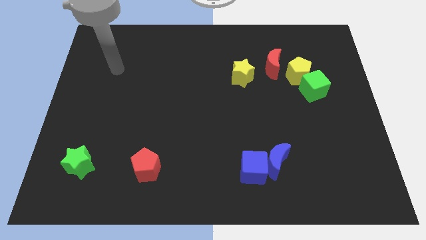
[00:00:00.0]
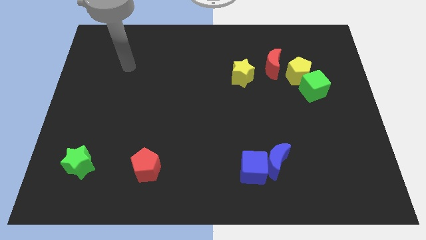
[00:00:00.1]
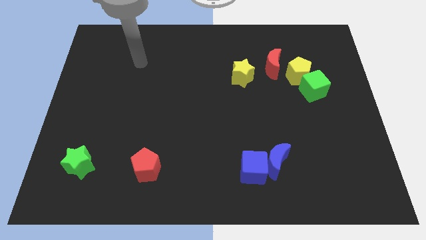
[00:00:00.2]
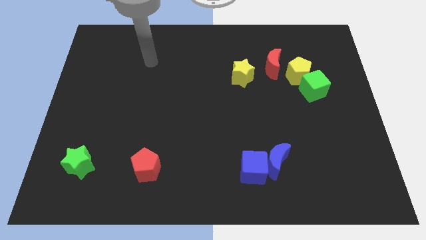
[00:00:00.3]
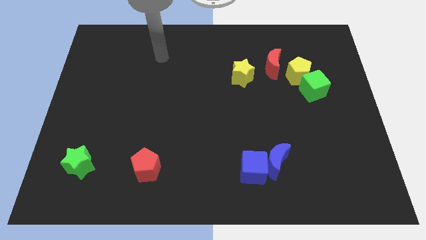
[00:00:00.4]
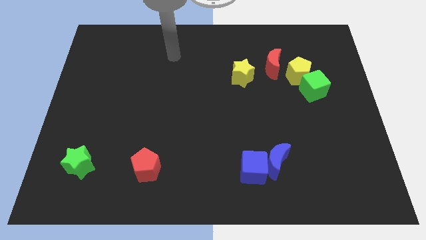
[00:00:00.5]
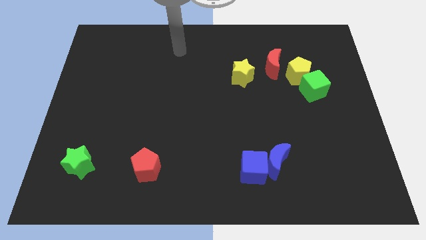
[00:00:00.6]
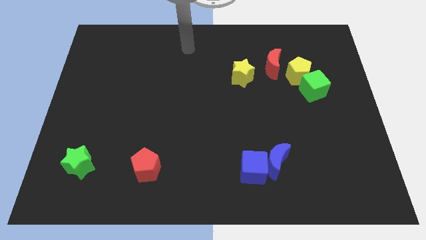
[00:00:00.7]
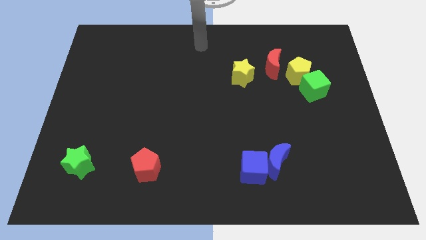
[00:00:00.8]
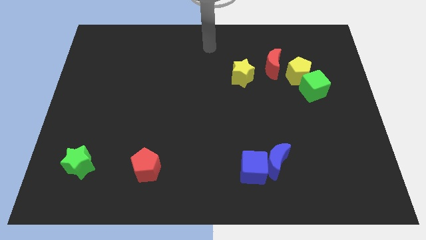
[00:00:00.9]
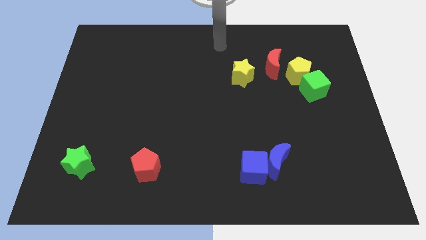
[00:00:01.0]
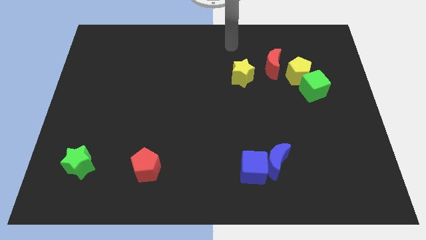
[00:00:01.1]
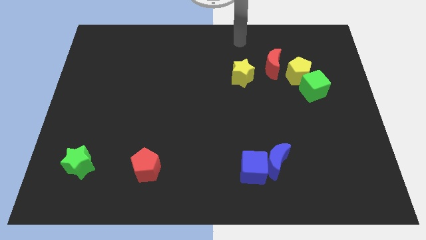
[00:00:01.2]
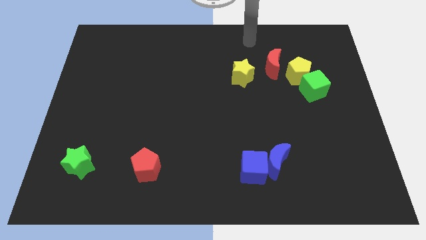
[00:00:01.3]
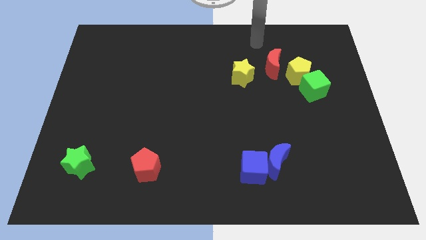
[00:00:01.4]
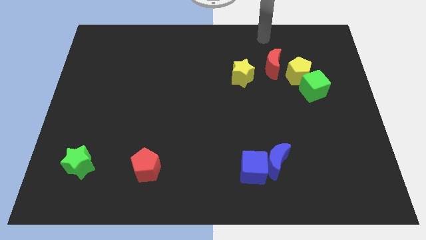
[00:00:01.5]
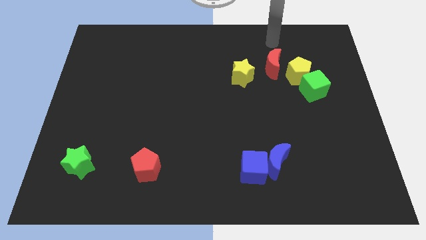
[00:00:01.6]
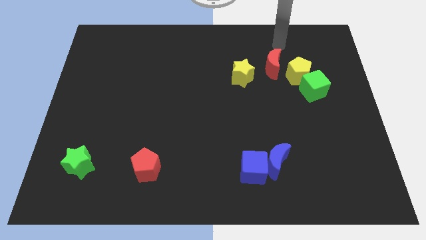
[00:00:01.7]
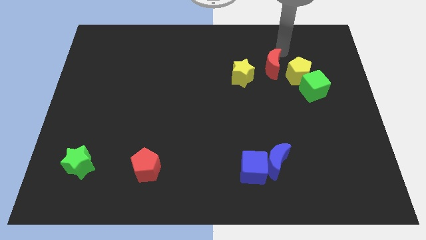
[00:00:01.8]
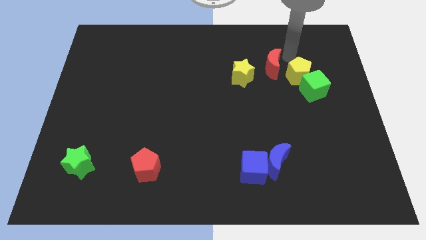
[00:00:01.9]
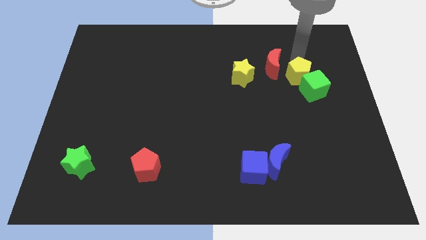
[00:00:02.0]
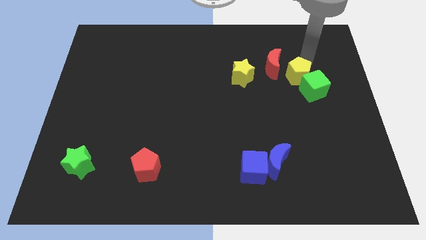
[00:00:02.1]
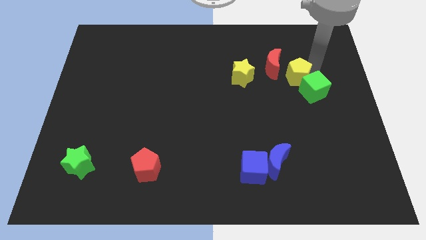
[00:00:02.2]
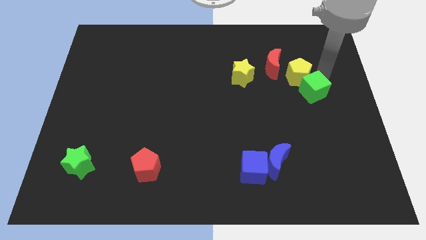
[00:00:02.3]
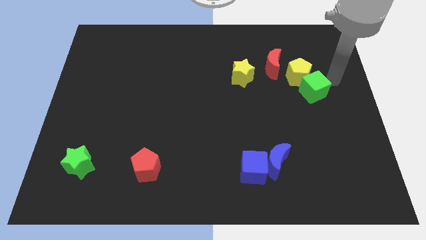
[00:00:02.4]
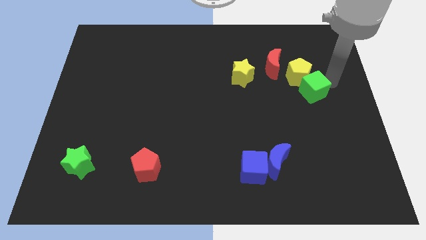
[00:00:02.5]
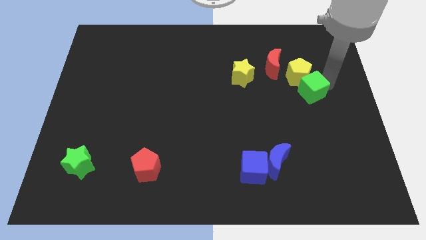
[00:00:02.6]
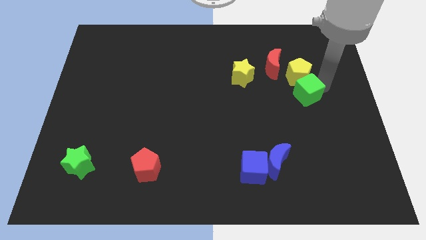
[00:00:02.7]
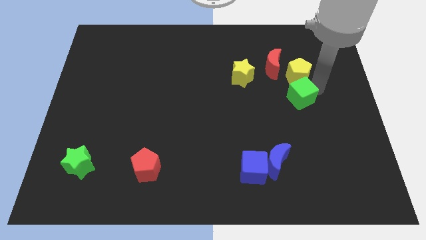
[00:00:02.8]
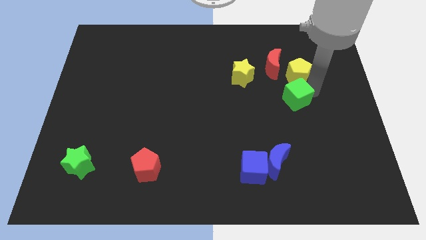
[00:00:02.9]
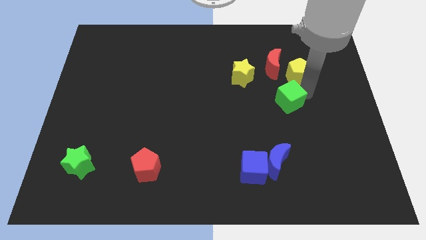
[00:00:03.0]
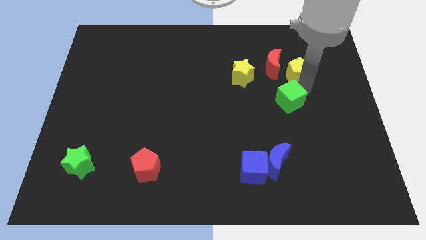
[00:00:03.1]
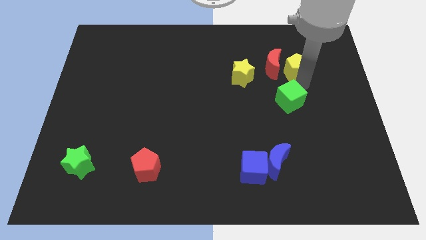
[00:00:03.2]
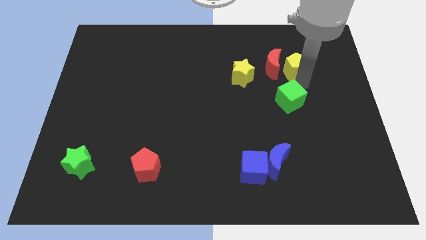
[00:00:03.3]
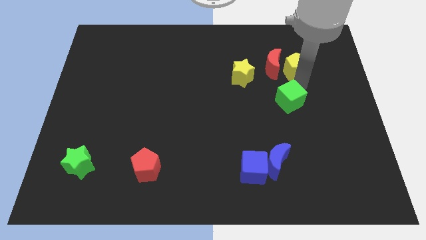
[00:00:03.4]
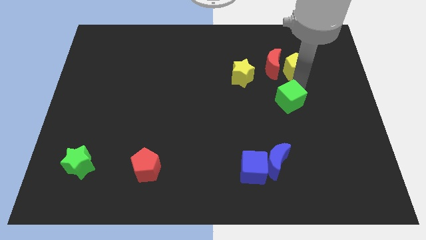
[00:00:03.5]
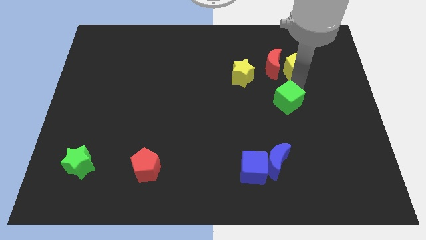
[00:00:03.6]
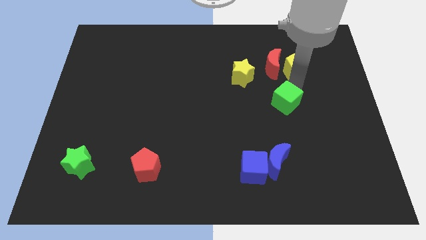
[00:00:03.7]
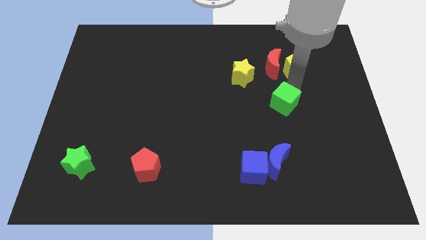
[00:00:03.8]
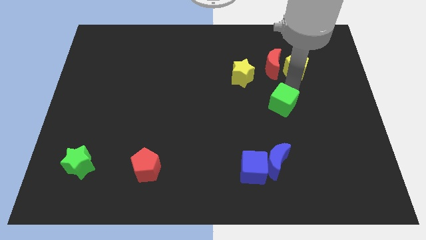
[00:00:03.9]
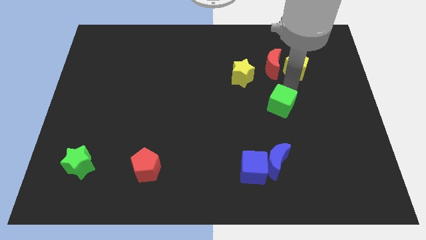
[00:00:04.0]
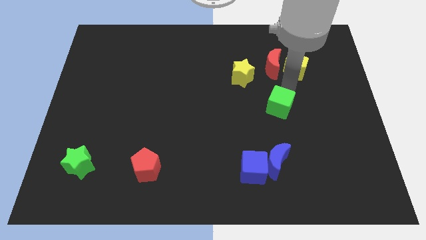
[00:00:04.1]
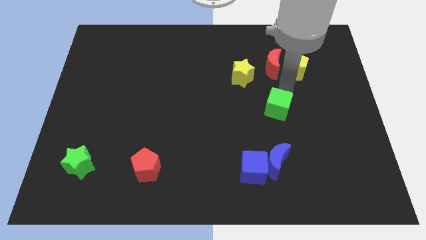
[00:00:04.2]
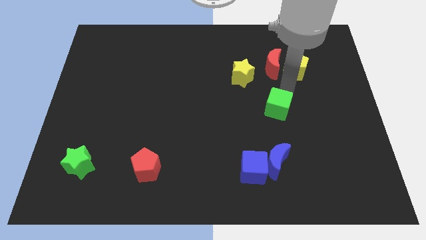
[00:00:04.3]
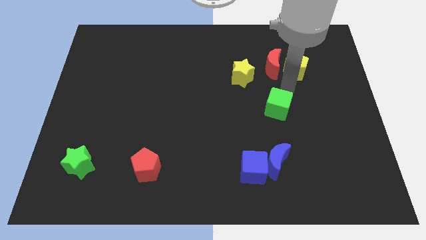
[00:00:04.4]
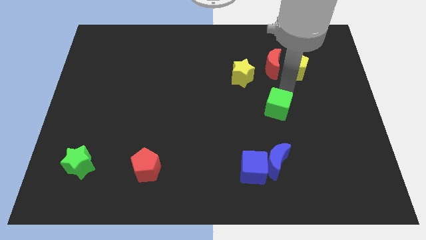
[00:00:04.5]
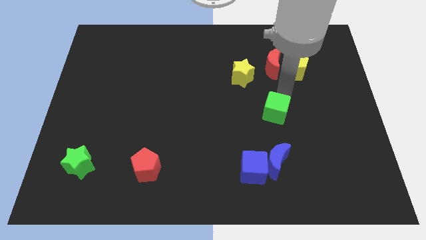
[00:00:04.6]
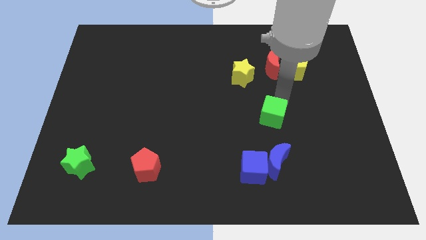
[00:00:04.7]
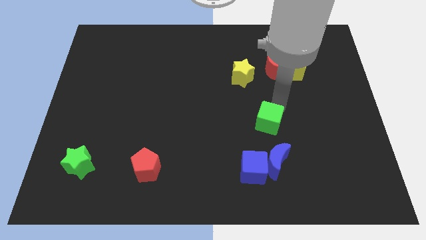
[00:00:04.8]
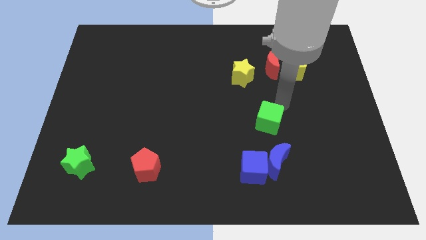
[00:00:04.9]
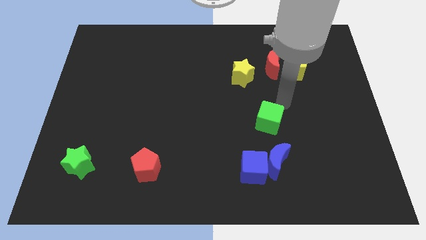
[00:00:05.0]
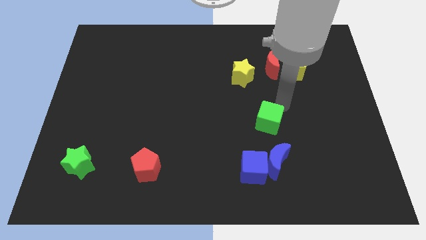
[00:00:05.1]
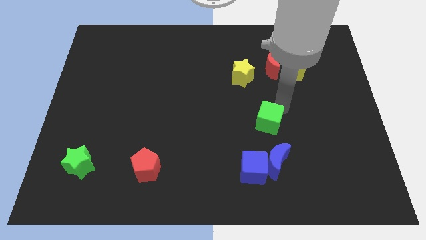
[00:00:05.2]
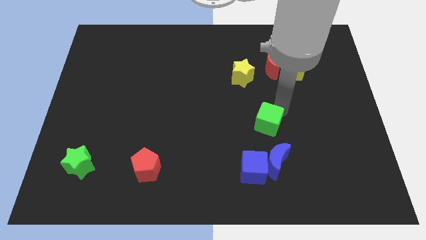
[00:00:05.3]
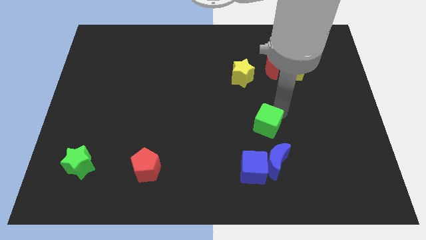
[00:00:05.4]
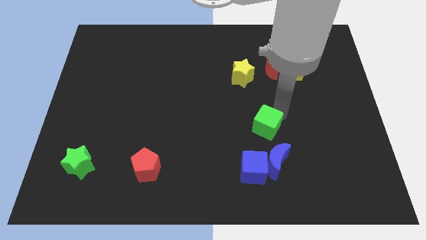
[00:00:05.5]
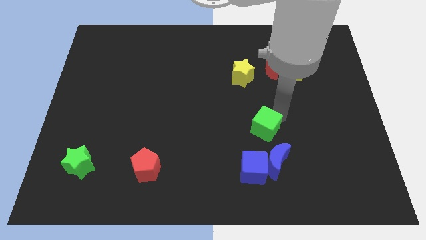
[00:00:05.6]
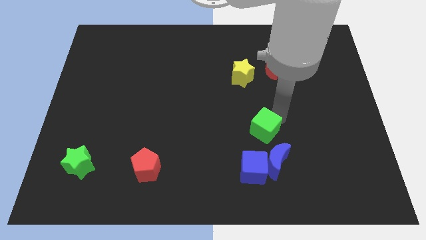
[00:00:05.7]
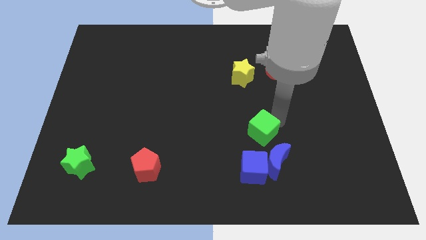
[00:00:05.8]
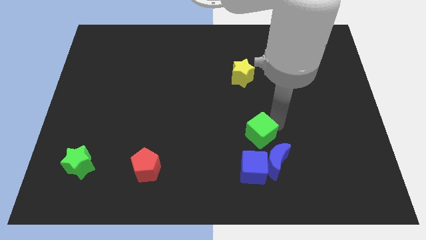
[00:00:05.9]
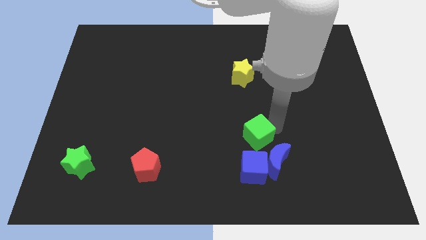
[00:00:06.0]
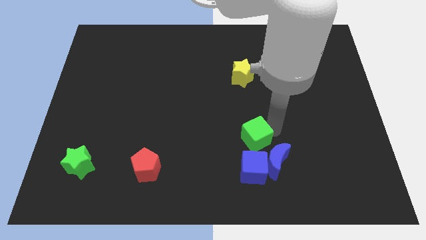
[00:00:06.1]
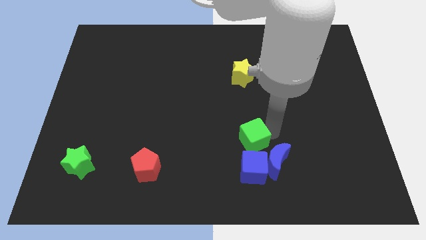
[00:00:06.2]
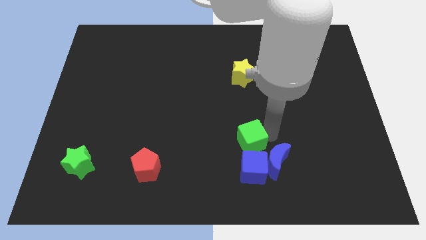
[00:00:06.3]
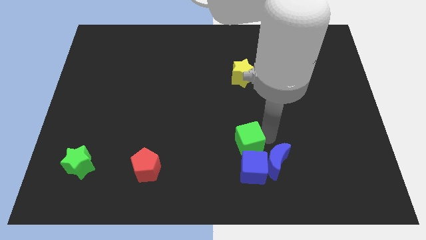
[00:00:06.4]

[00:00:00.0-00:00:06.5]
push the green cube diagonally up and to the left of the blue cube

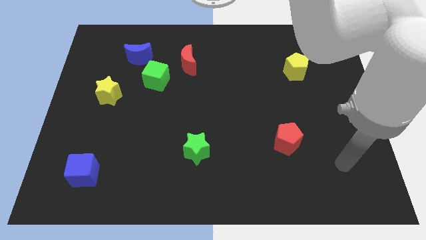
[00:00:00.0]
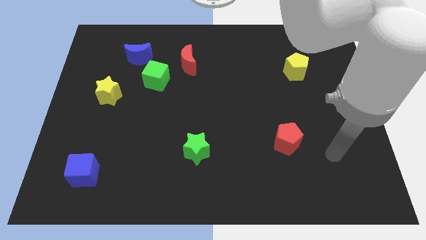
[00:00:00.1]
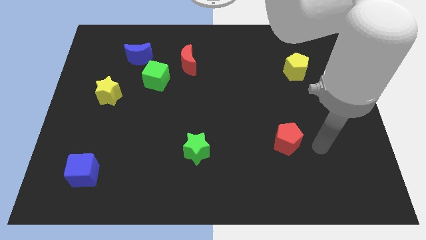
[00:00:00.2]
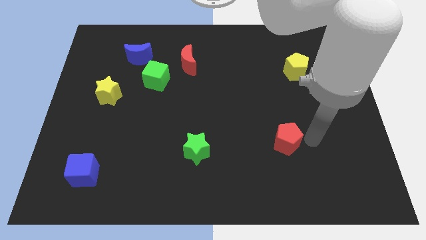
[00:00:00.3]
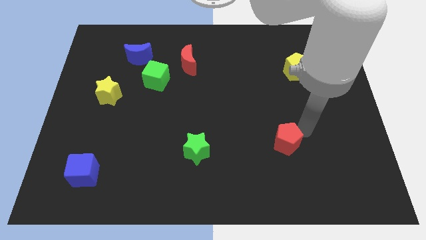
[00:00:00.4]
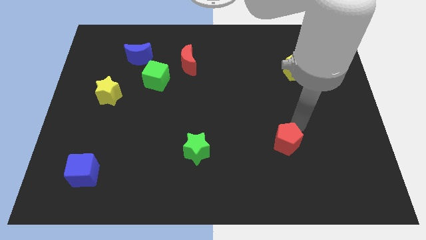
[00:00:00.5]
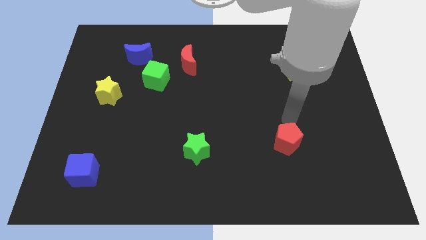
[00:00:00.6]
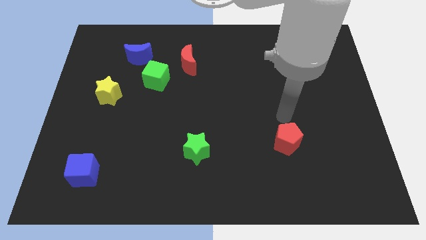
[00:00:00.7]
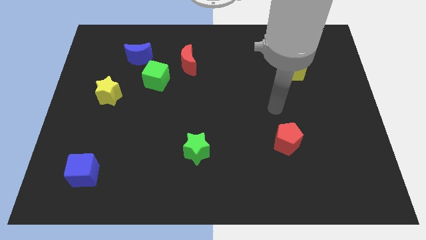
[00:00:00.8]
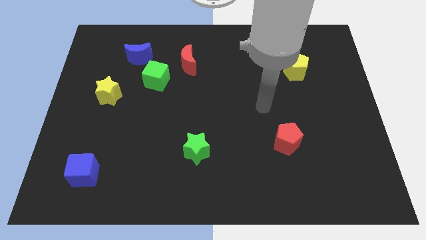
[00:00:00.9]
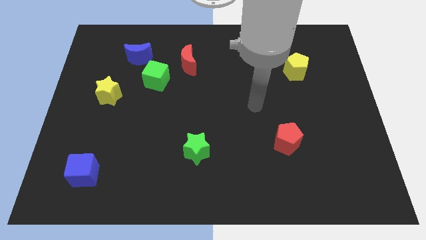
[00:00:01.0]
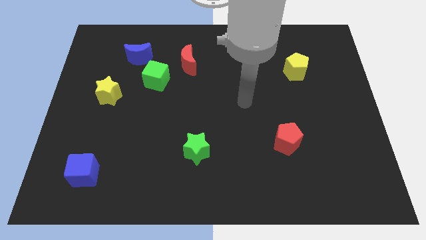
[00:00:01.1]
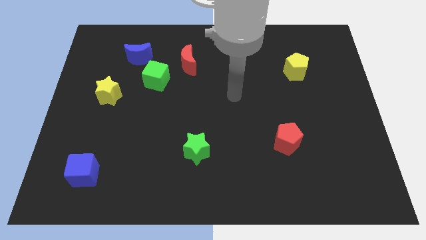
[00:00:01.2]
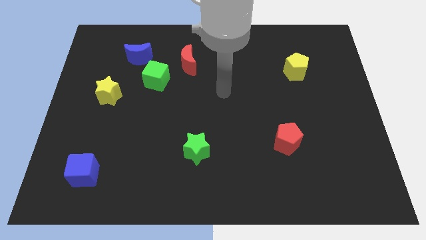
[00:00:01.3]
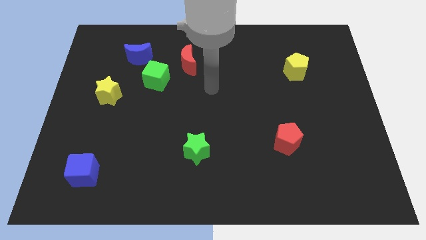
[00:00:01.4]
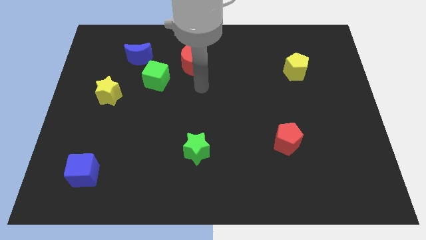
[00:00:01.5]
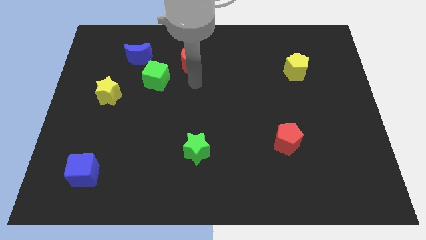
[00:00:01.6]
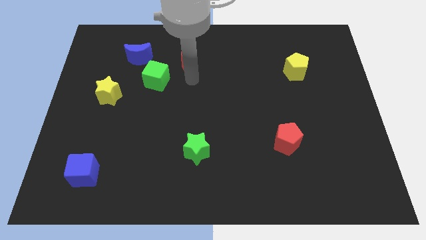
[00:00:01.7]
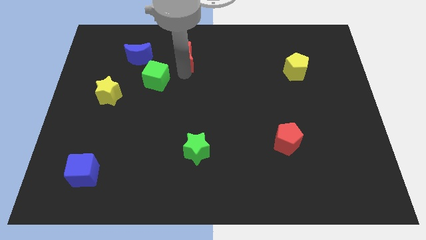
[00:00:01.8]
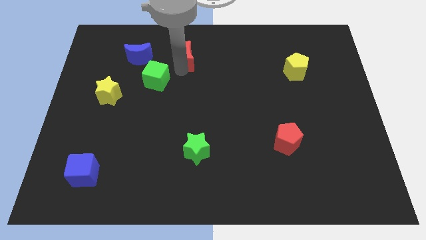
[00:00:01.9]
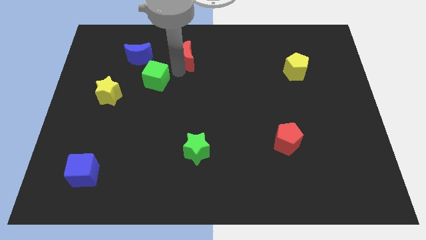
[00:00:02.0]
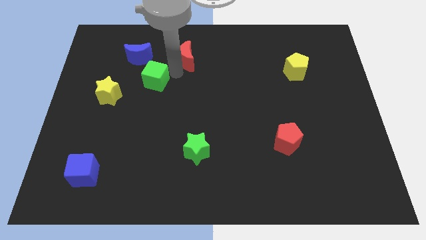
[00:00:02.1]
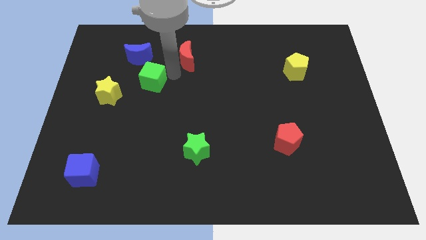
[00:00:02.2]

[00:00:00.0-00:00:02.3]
push the green cube to the bottom side of the blue moon
